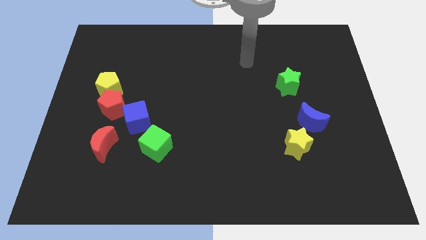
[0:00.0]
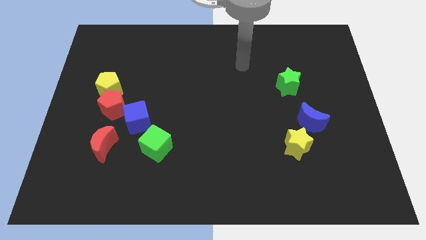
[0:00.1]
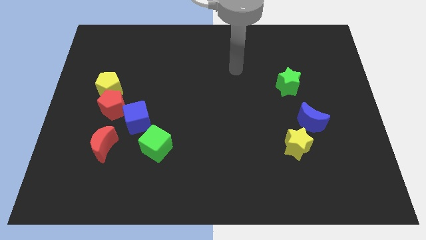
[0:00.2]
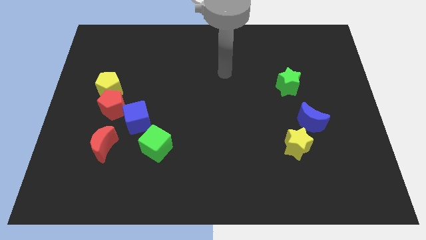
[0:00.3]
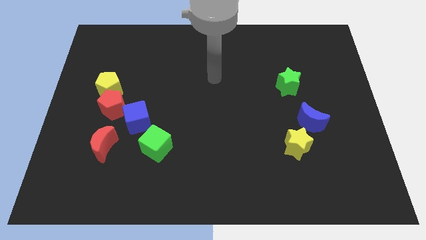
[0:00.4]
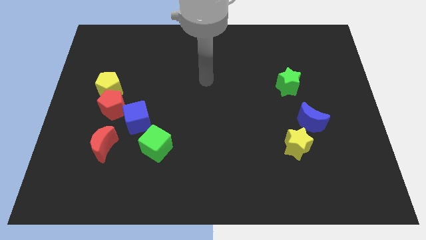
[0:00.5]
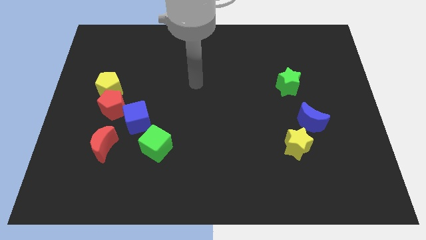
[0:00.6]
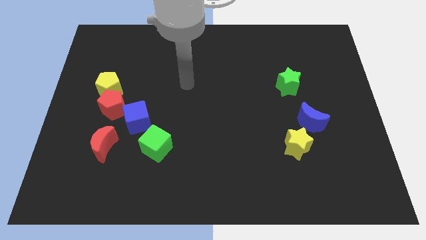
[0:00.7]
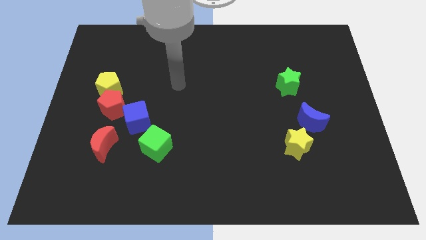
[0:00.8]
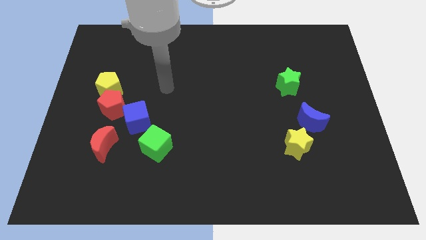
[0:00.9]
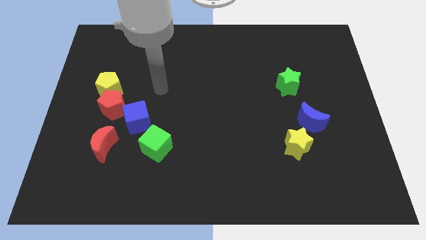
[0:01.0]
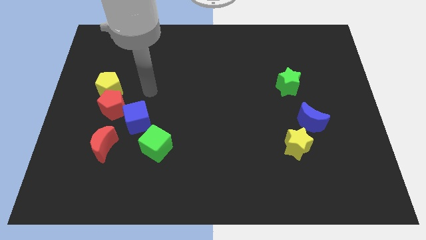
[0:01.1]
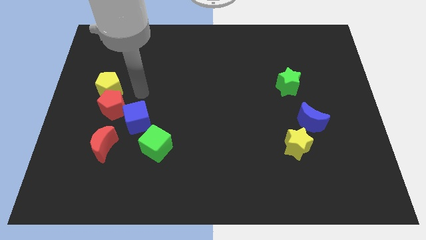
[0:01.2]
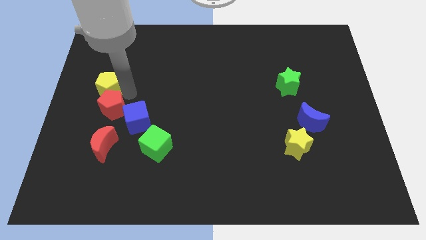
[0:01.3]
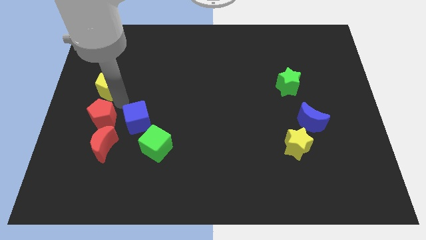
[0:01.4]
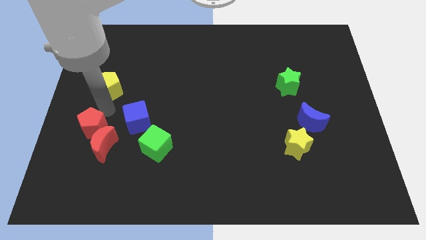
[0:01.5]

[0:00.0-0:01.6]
pull the yellow pentagon apart from the red pentagon

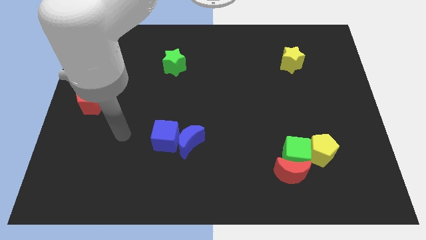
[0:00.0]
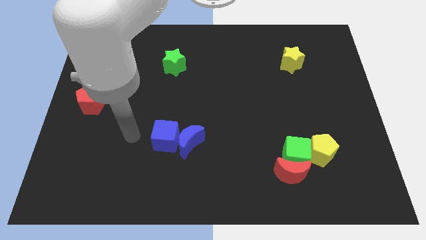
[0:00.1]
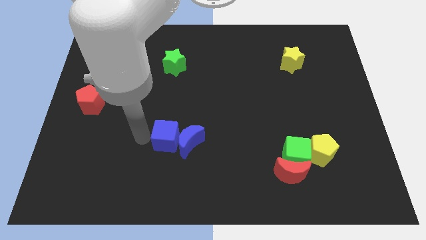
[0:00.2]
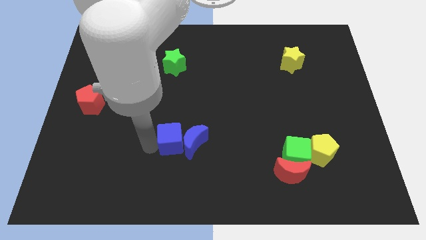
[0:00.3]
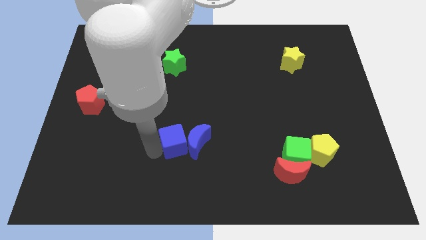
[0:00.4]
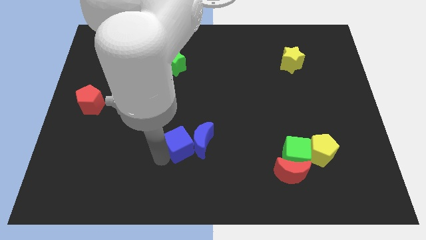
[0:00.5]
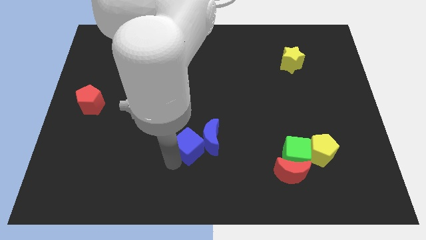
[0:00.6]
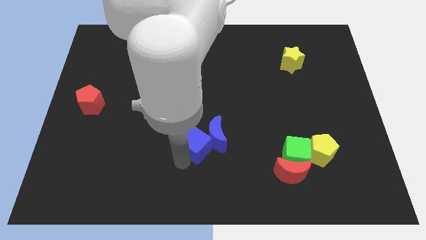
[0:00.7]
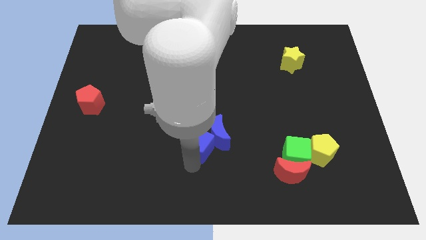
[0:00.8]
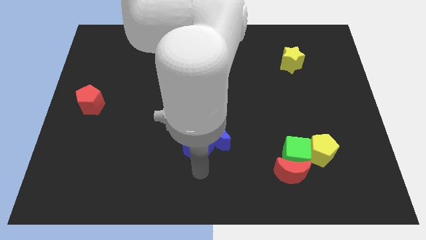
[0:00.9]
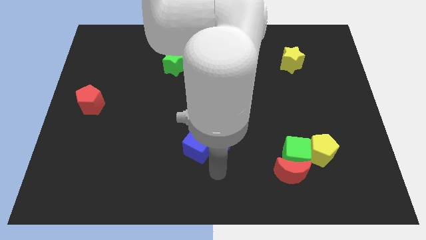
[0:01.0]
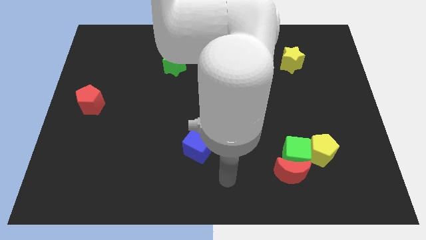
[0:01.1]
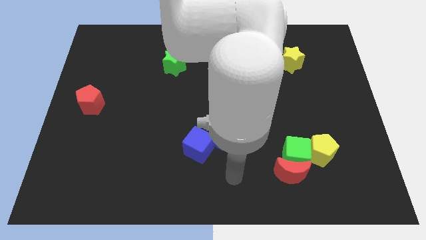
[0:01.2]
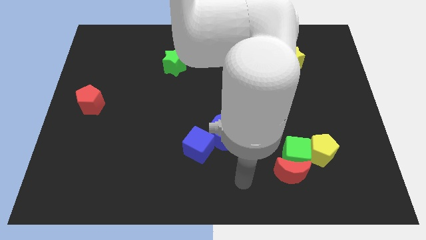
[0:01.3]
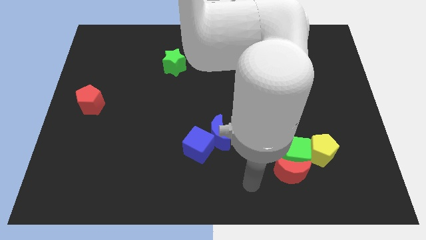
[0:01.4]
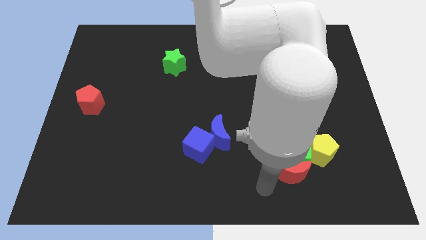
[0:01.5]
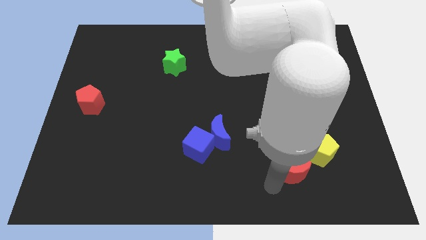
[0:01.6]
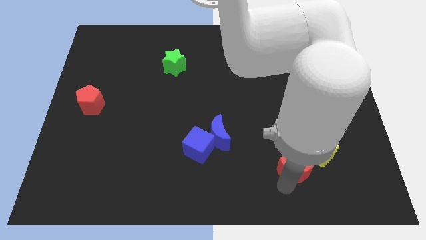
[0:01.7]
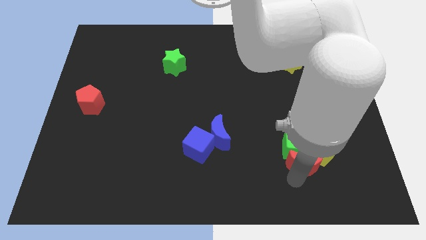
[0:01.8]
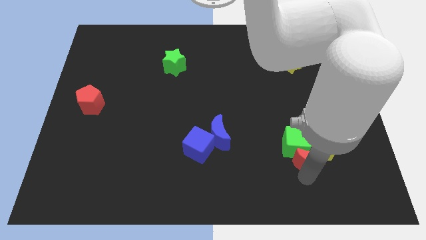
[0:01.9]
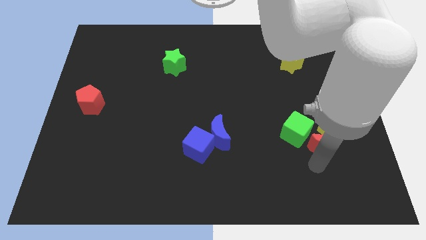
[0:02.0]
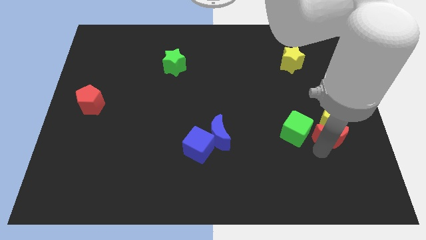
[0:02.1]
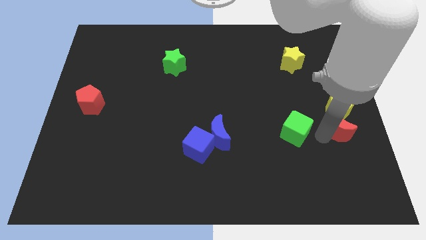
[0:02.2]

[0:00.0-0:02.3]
pull the green cube apart from the red moon and yellow pentagon

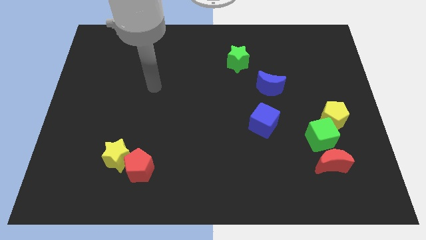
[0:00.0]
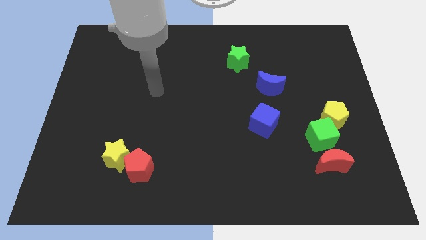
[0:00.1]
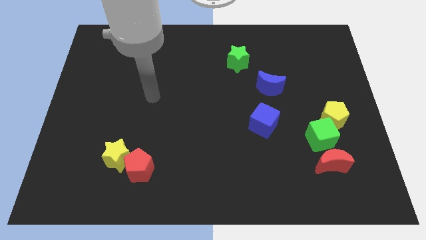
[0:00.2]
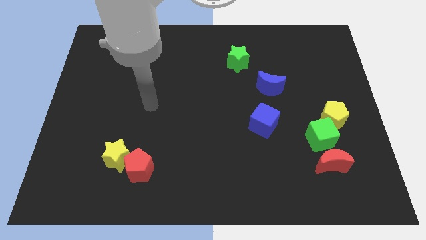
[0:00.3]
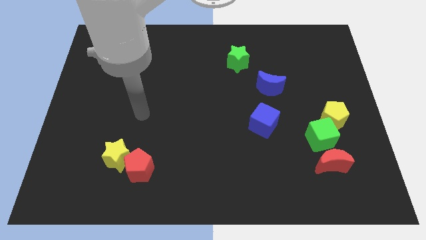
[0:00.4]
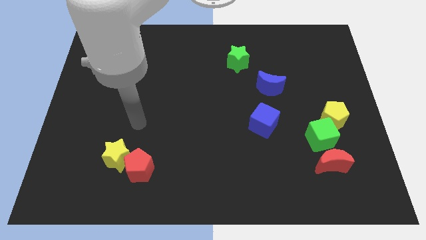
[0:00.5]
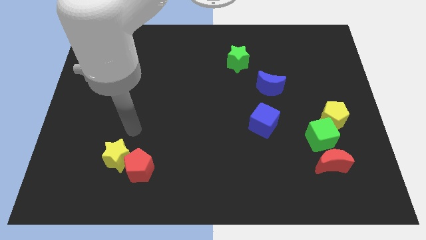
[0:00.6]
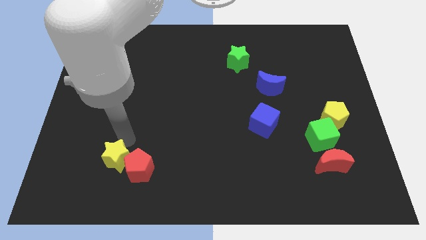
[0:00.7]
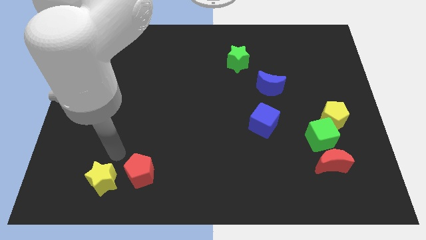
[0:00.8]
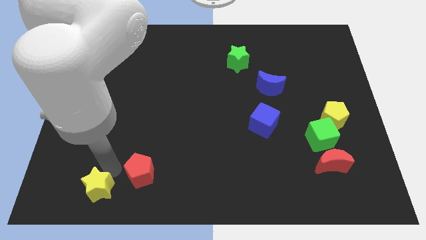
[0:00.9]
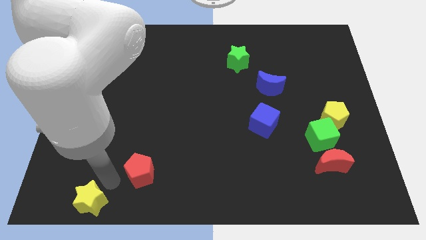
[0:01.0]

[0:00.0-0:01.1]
pull the red pentagon apart from the yellow star

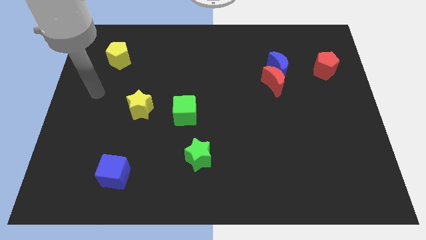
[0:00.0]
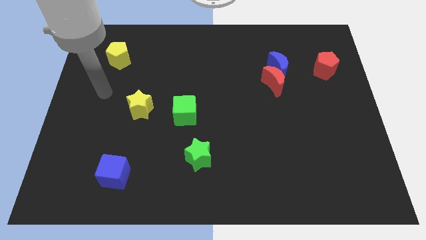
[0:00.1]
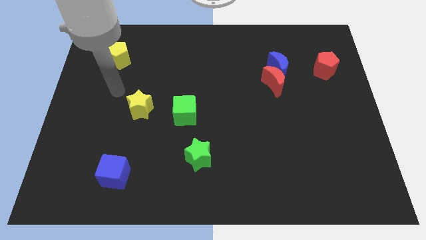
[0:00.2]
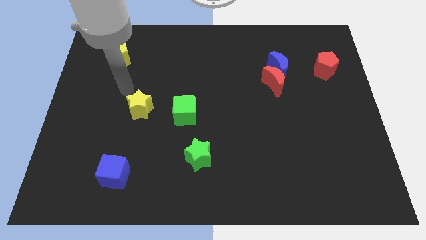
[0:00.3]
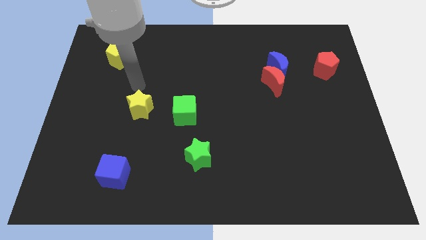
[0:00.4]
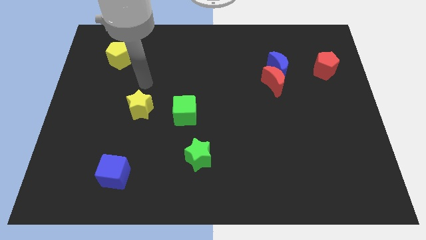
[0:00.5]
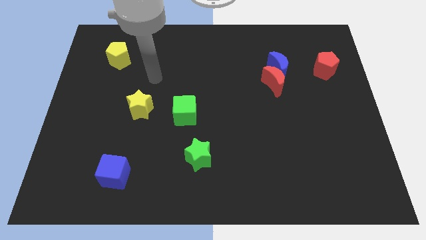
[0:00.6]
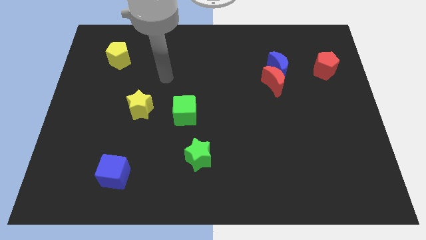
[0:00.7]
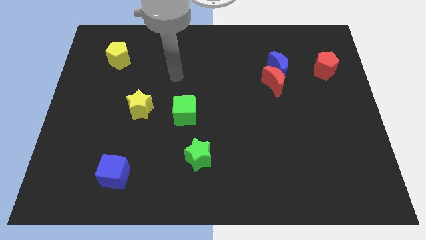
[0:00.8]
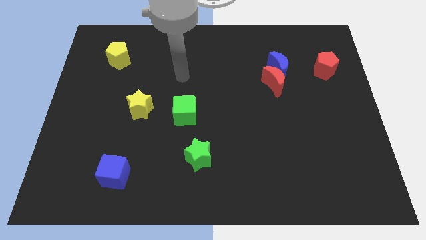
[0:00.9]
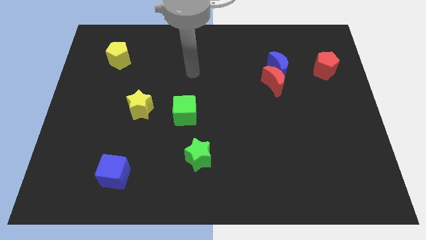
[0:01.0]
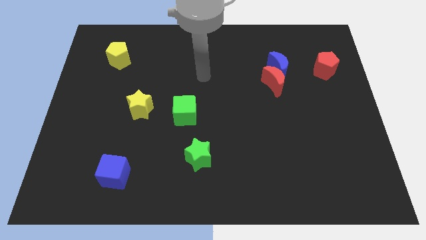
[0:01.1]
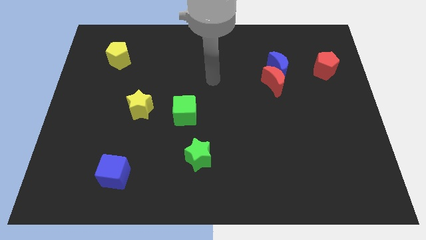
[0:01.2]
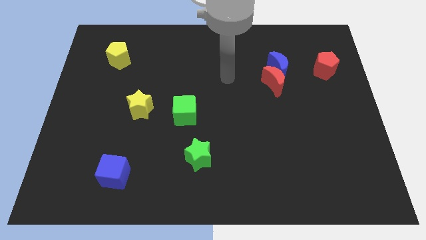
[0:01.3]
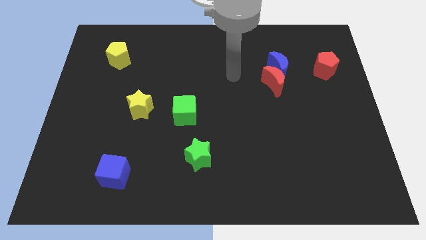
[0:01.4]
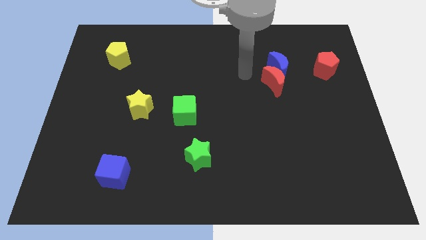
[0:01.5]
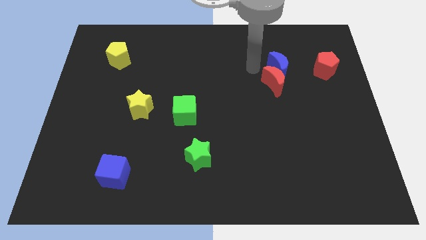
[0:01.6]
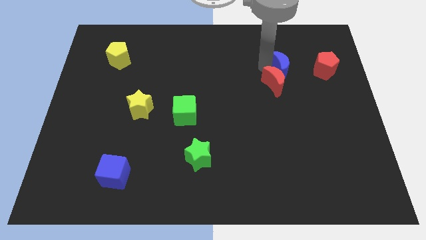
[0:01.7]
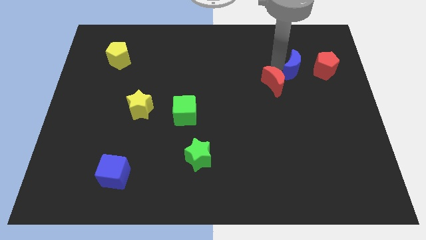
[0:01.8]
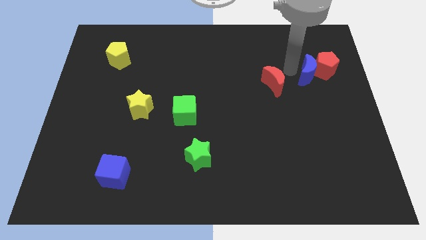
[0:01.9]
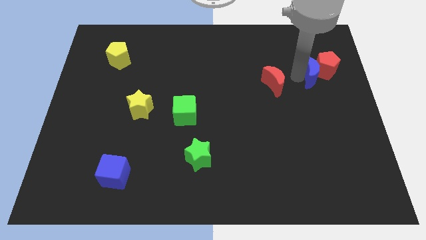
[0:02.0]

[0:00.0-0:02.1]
pull the red moon apart from the blue moon

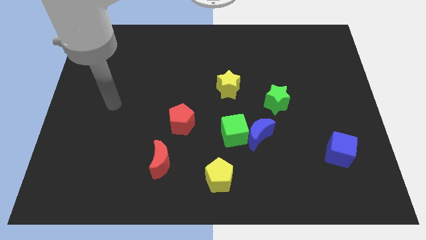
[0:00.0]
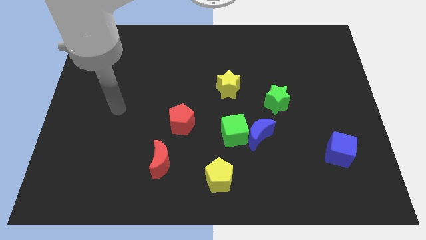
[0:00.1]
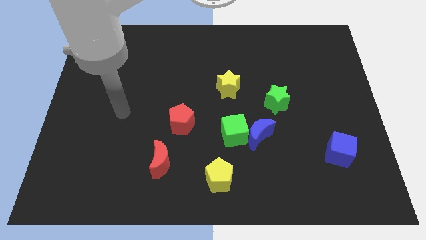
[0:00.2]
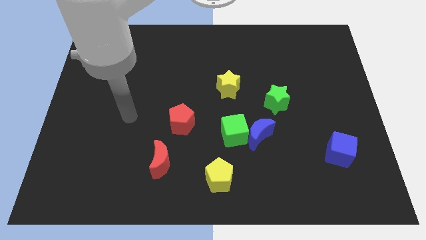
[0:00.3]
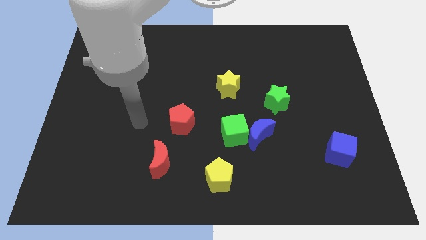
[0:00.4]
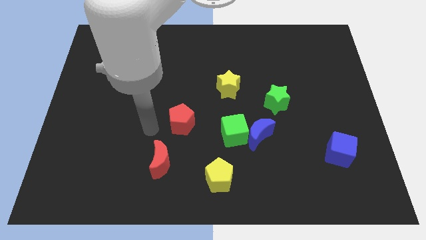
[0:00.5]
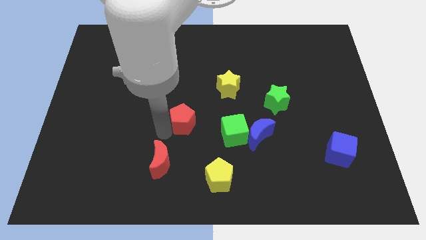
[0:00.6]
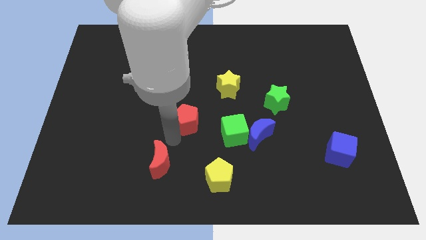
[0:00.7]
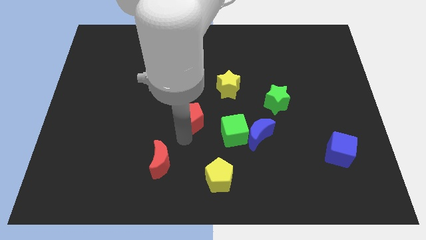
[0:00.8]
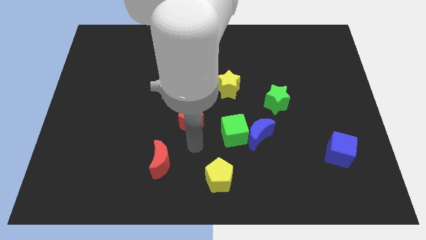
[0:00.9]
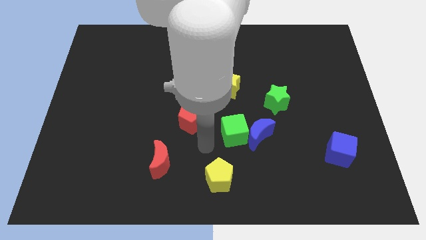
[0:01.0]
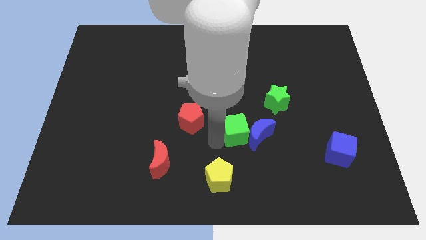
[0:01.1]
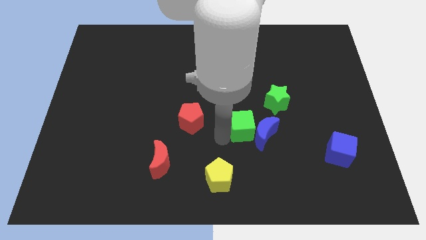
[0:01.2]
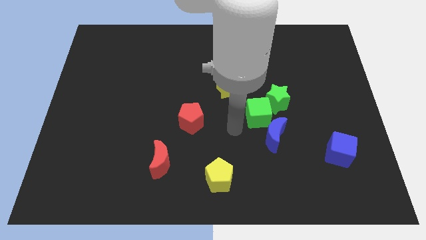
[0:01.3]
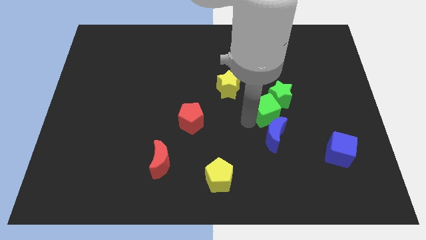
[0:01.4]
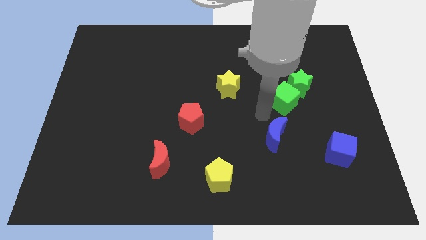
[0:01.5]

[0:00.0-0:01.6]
separate the blue moon from the green cube

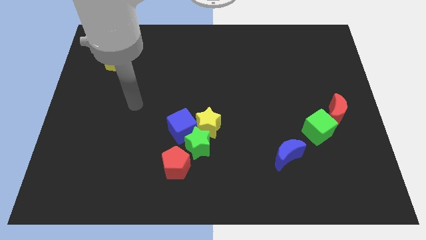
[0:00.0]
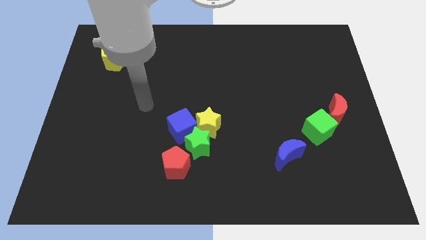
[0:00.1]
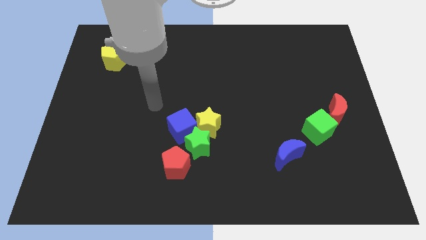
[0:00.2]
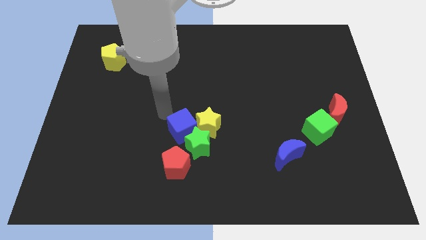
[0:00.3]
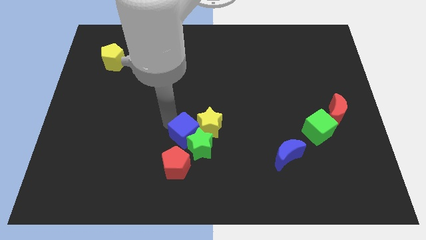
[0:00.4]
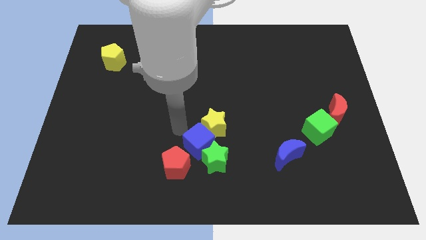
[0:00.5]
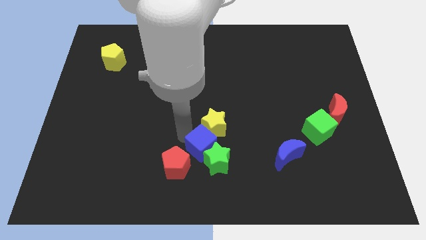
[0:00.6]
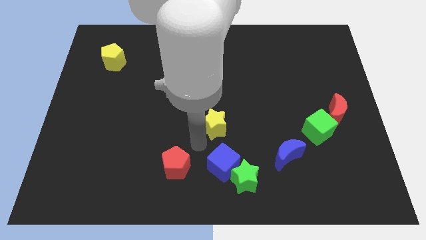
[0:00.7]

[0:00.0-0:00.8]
move the yellow star away from the green star and blue cube

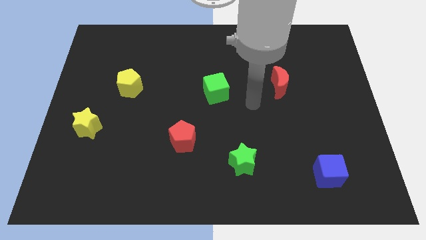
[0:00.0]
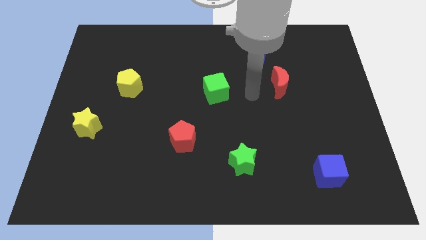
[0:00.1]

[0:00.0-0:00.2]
move the red moon away from the blue moon
